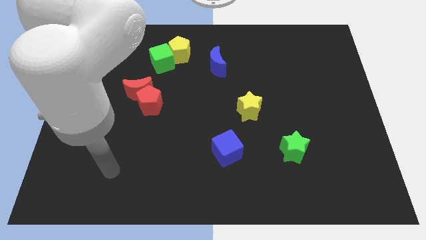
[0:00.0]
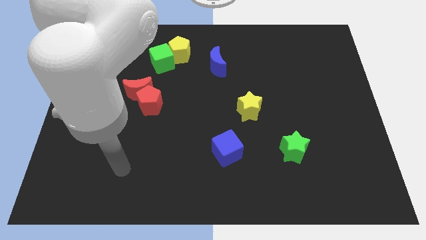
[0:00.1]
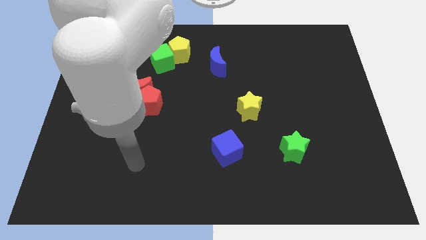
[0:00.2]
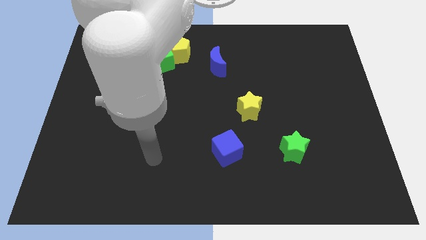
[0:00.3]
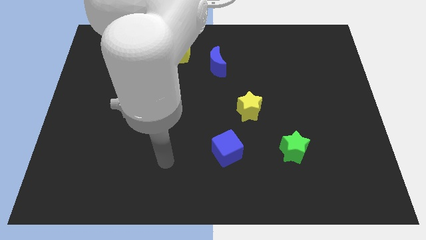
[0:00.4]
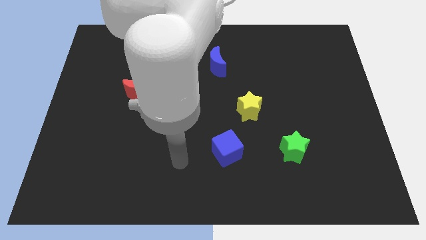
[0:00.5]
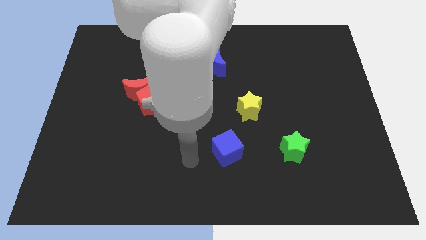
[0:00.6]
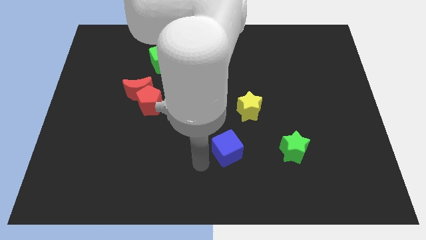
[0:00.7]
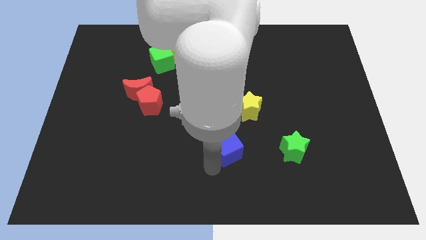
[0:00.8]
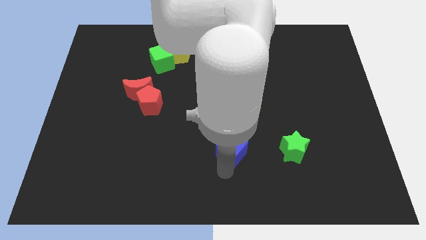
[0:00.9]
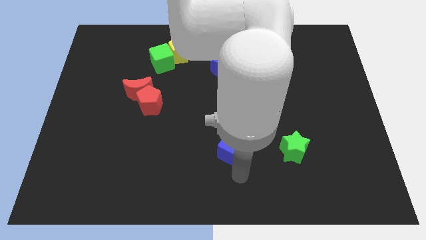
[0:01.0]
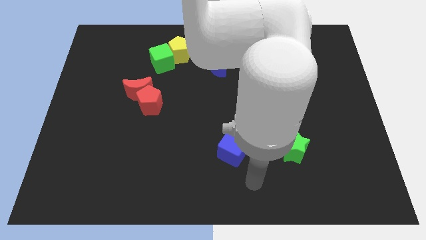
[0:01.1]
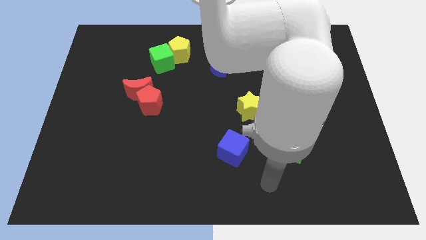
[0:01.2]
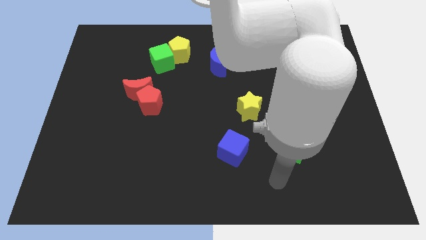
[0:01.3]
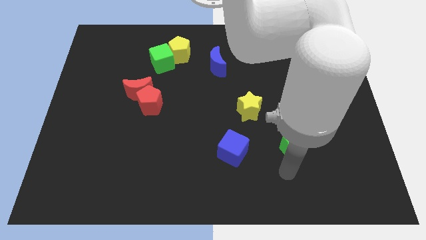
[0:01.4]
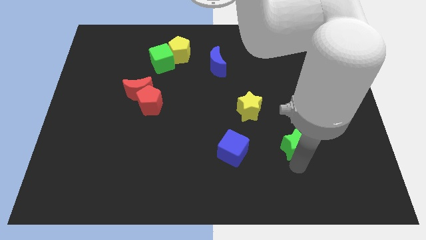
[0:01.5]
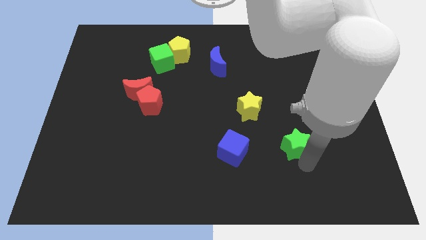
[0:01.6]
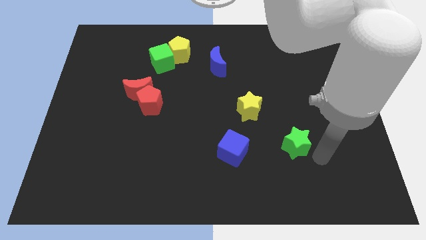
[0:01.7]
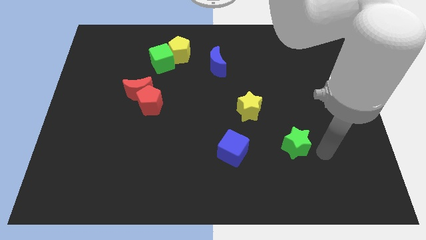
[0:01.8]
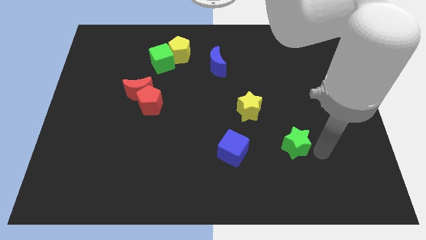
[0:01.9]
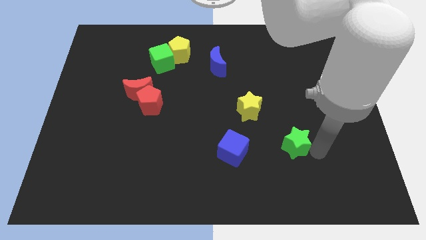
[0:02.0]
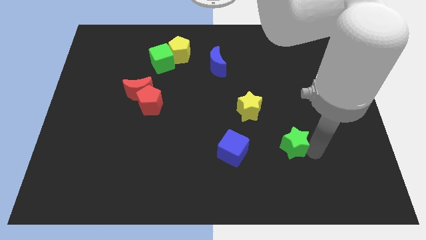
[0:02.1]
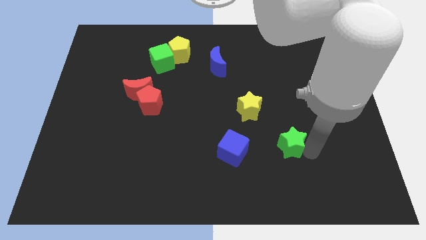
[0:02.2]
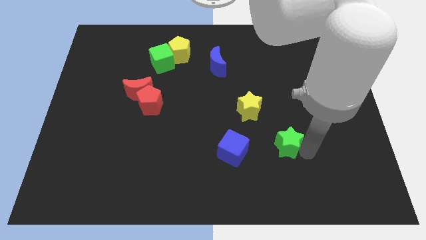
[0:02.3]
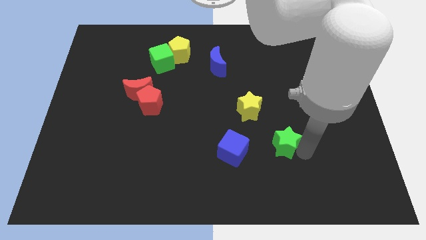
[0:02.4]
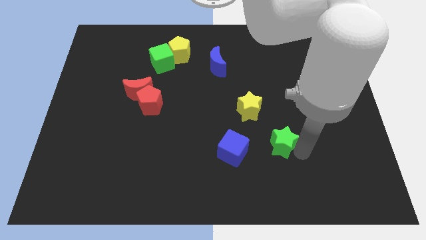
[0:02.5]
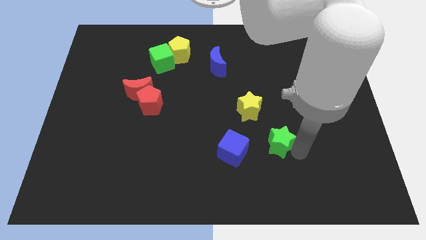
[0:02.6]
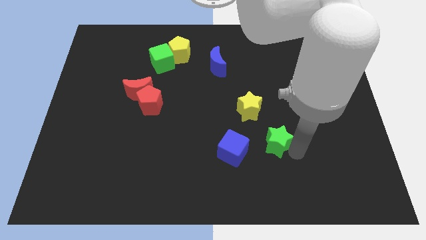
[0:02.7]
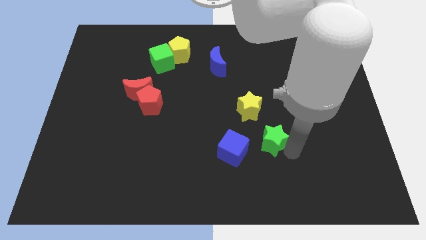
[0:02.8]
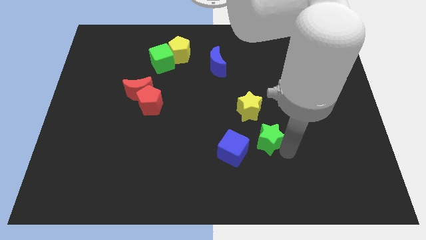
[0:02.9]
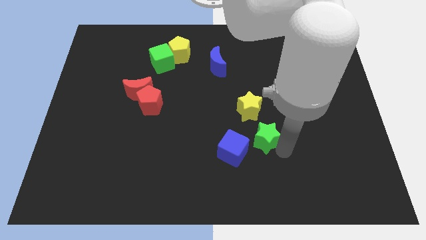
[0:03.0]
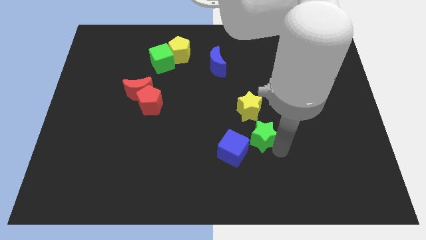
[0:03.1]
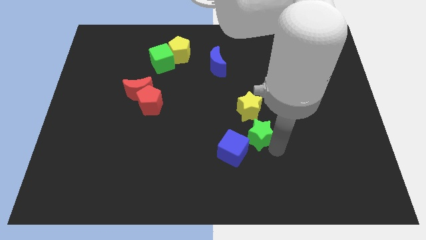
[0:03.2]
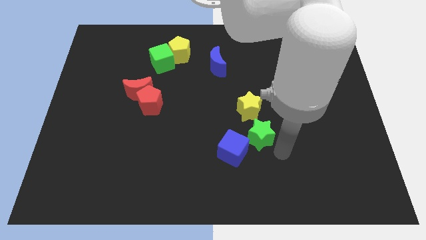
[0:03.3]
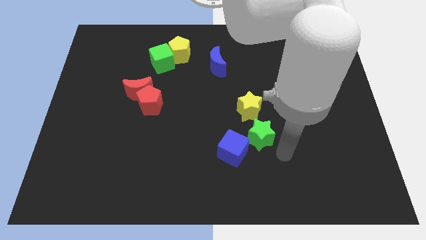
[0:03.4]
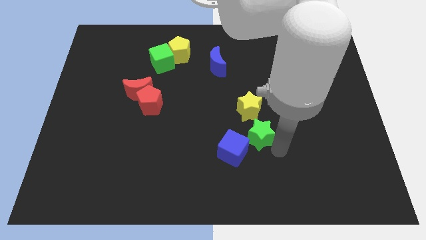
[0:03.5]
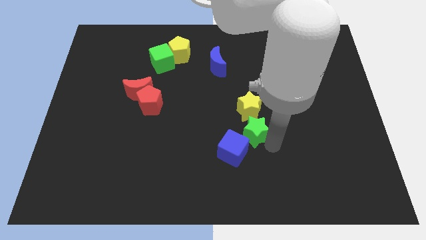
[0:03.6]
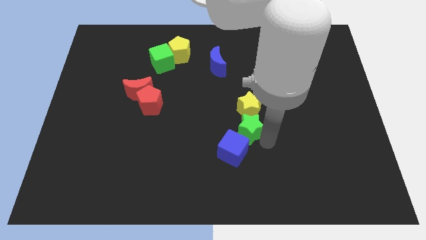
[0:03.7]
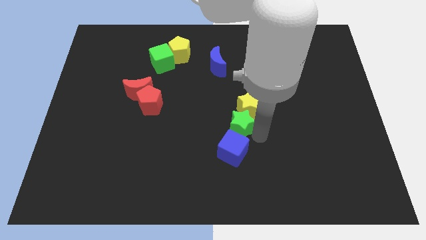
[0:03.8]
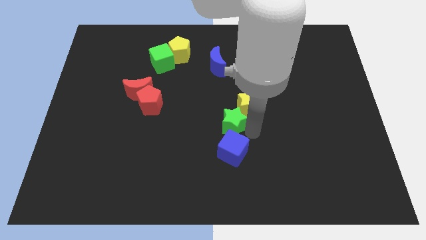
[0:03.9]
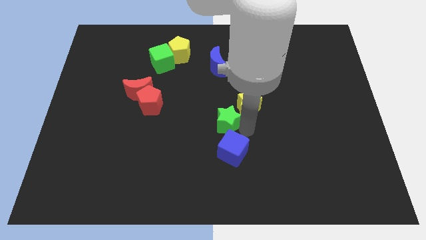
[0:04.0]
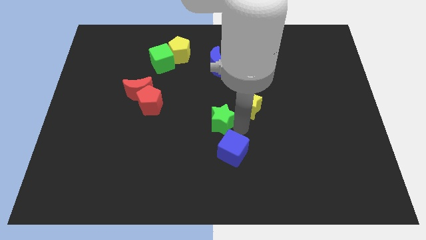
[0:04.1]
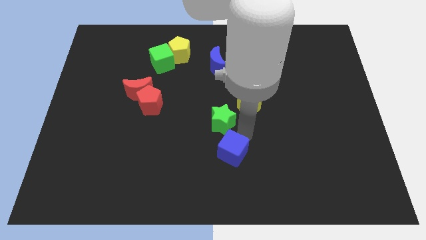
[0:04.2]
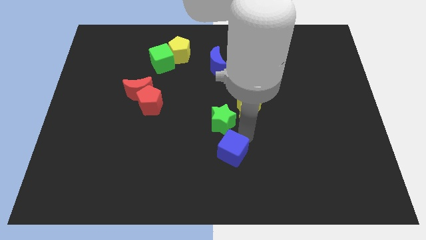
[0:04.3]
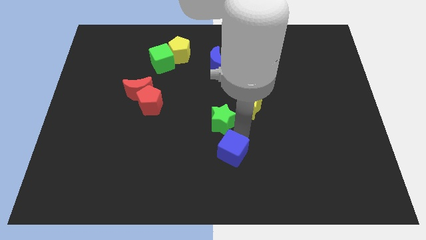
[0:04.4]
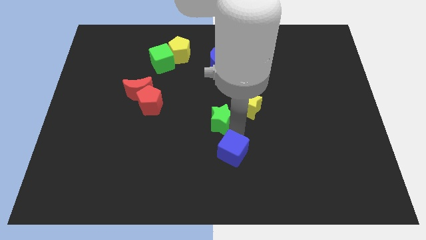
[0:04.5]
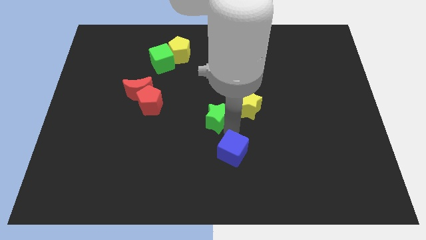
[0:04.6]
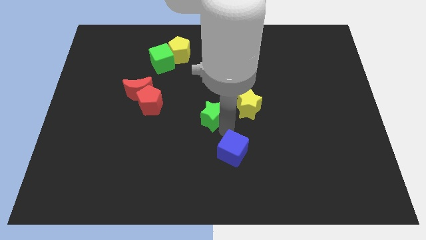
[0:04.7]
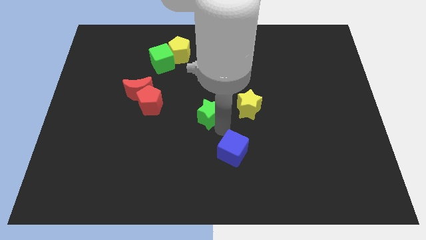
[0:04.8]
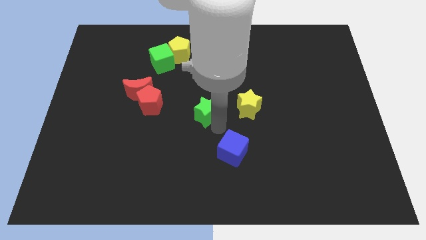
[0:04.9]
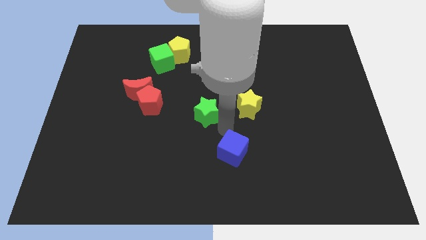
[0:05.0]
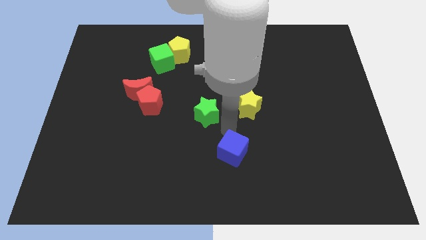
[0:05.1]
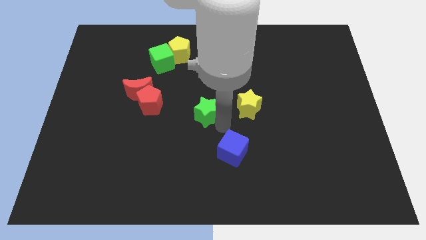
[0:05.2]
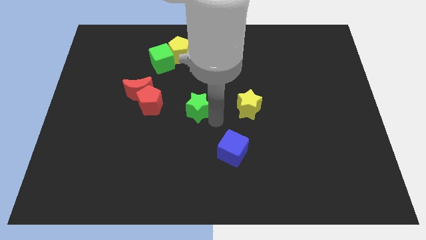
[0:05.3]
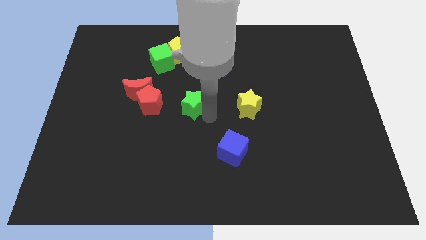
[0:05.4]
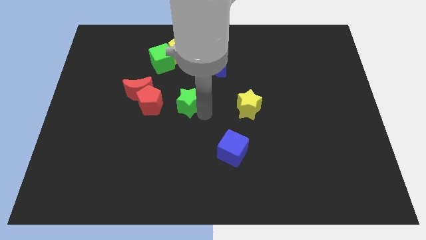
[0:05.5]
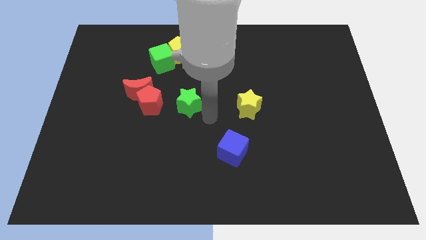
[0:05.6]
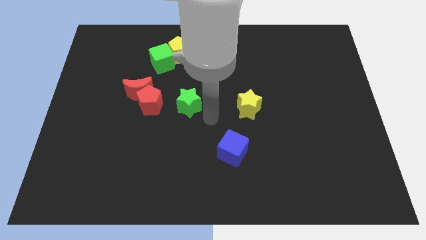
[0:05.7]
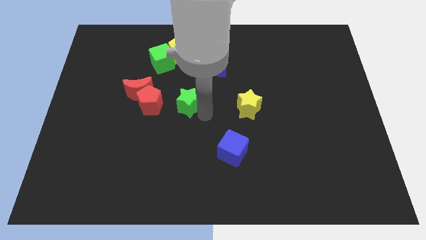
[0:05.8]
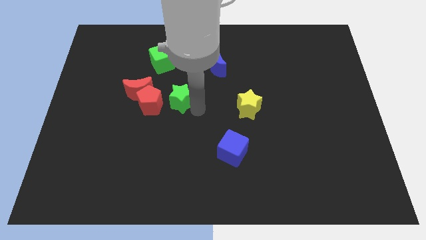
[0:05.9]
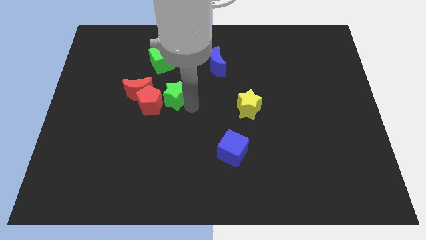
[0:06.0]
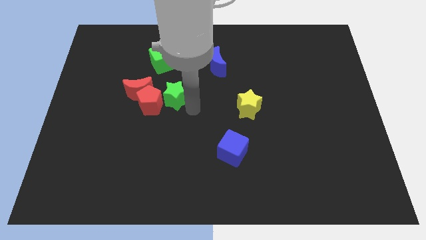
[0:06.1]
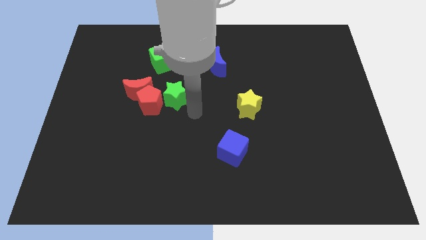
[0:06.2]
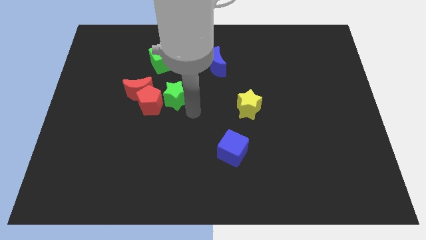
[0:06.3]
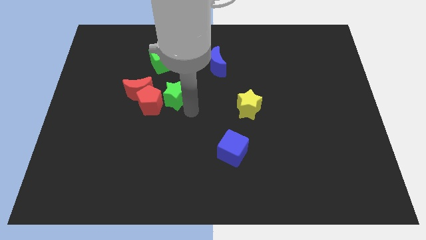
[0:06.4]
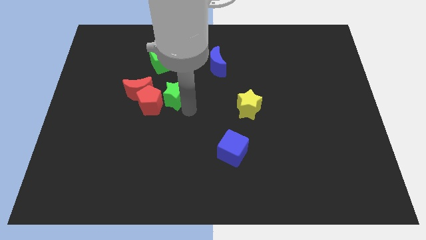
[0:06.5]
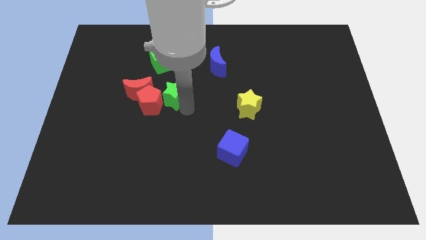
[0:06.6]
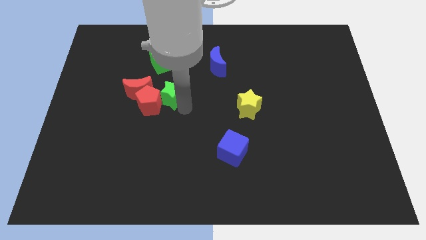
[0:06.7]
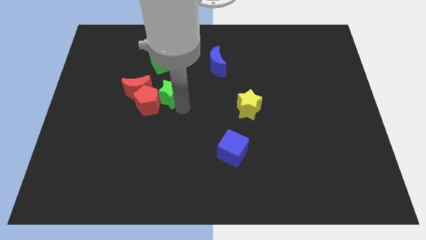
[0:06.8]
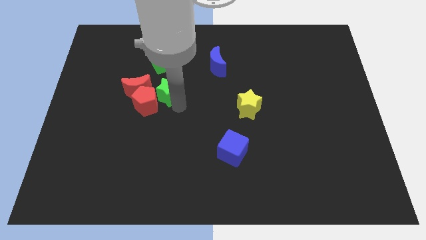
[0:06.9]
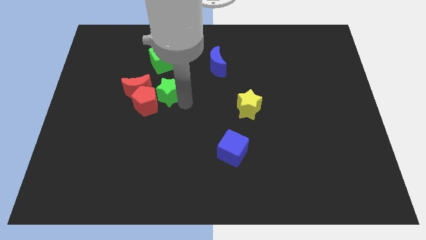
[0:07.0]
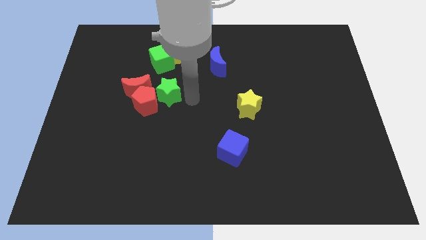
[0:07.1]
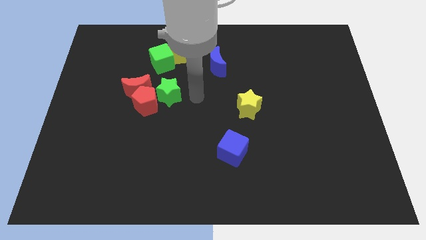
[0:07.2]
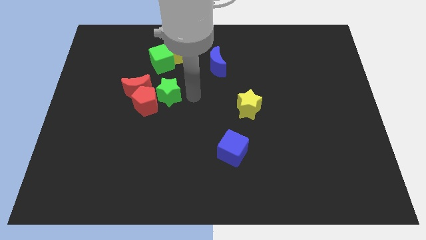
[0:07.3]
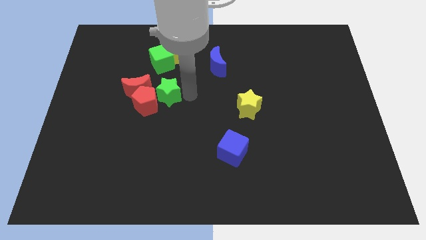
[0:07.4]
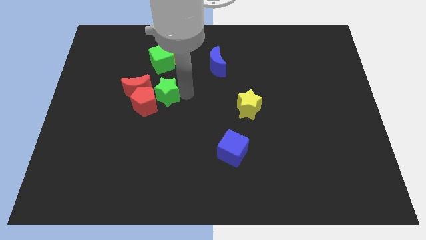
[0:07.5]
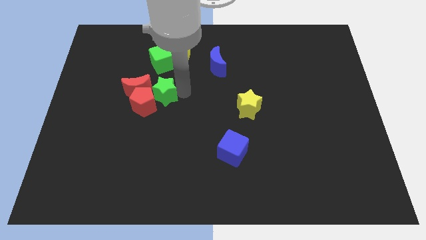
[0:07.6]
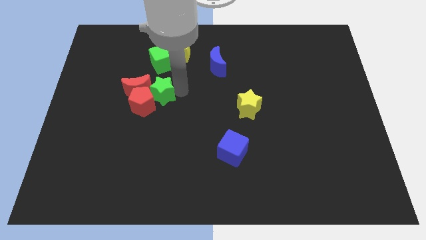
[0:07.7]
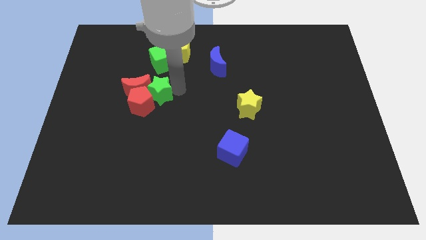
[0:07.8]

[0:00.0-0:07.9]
slide the green star next to the red moon

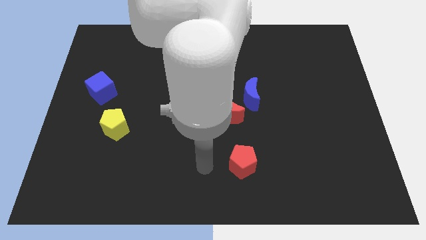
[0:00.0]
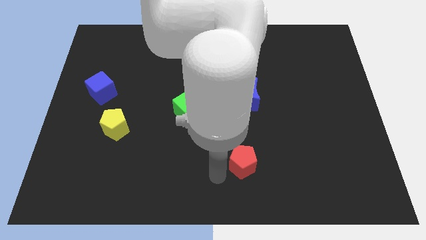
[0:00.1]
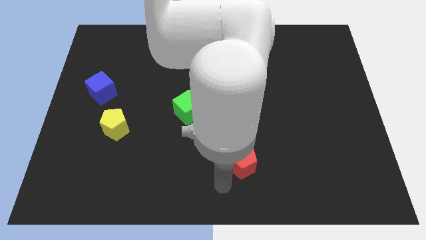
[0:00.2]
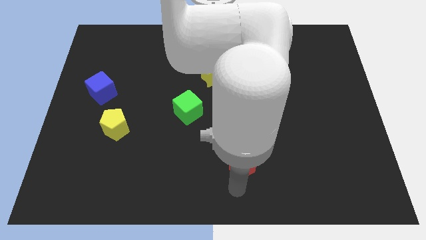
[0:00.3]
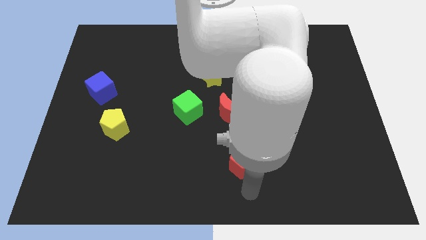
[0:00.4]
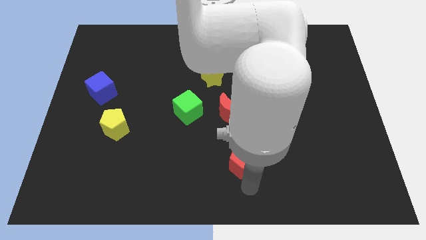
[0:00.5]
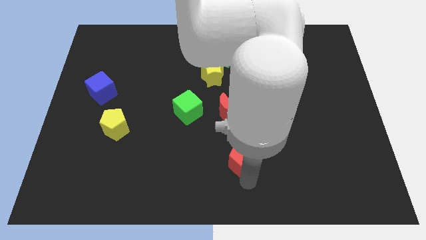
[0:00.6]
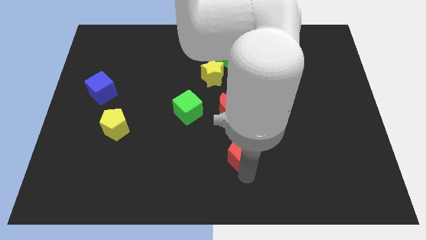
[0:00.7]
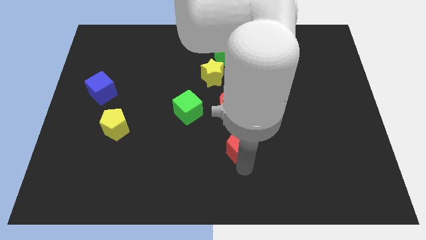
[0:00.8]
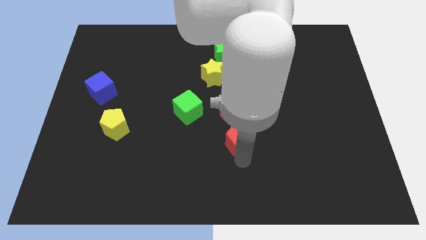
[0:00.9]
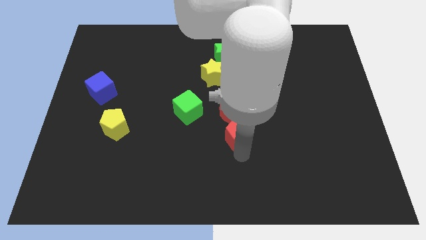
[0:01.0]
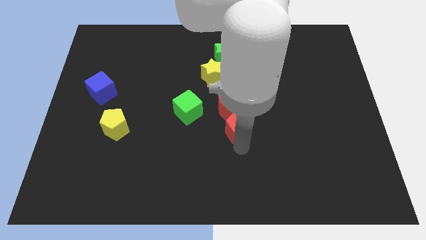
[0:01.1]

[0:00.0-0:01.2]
move the red pentagon towards the red moon
